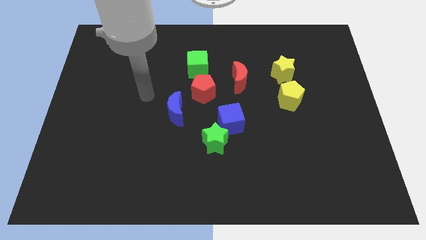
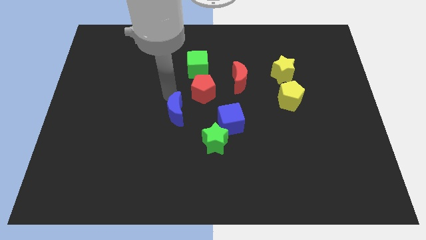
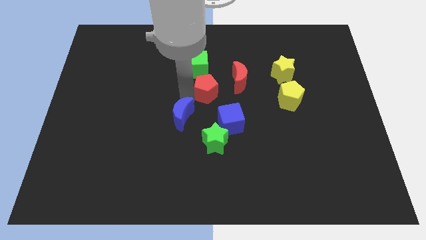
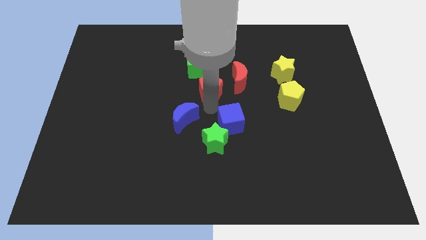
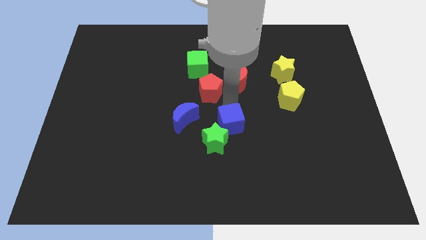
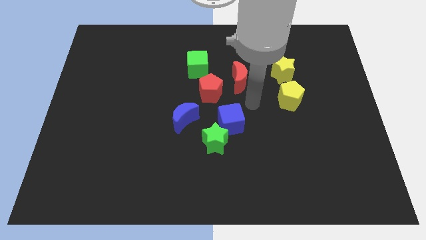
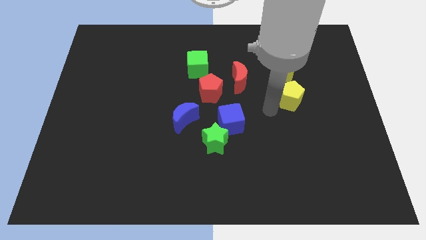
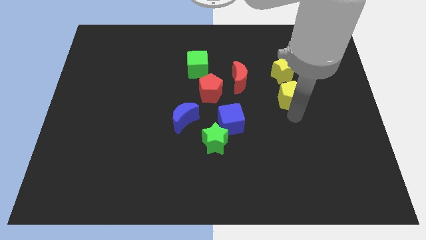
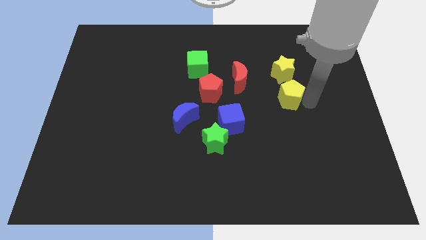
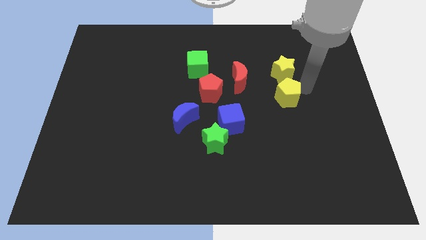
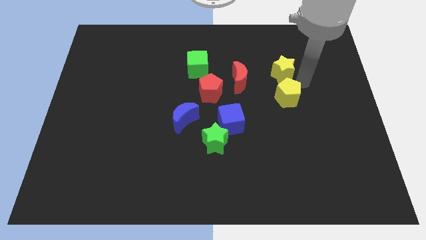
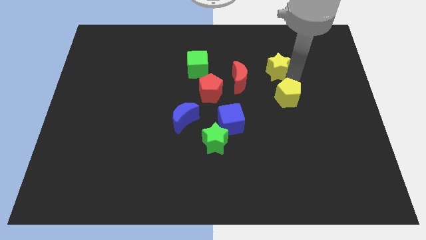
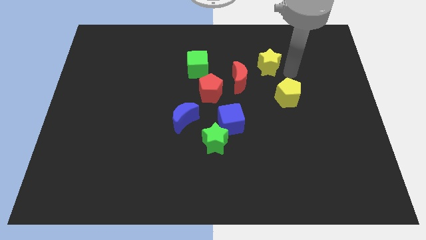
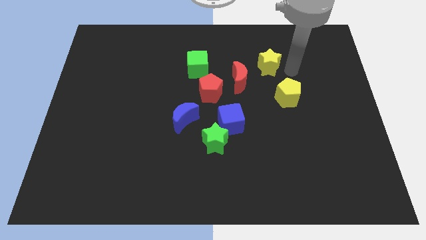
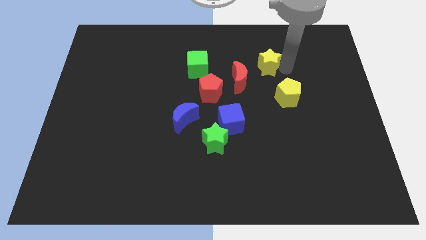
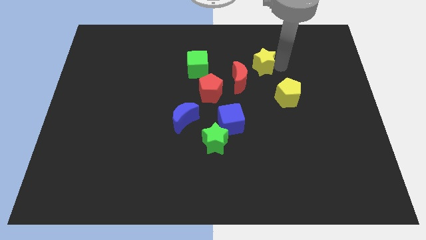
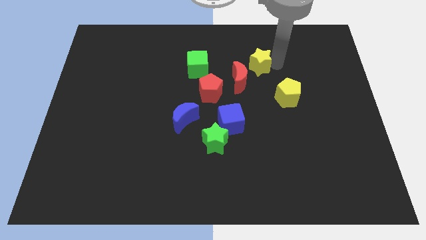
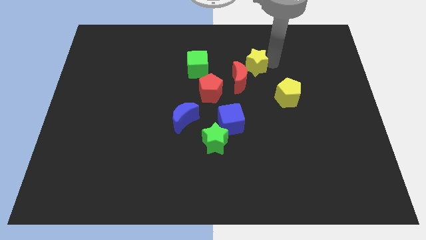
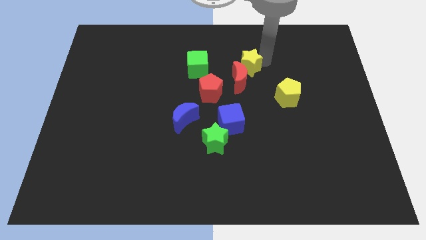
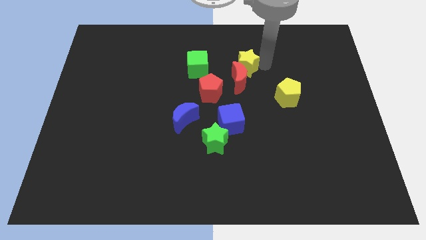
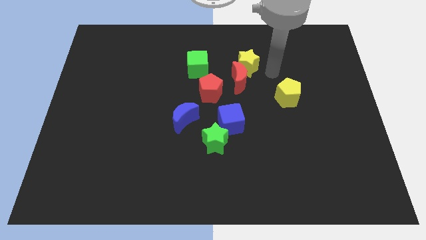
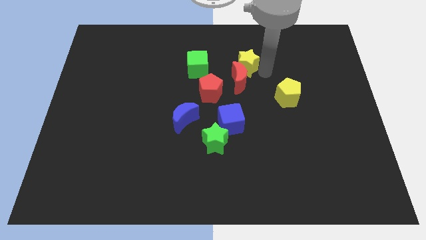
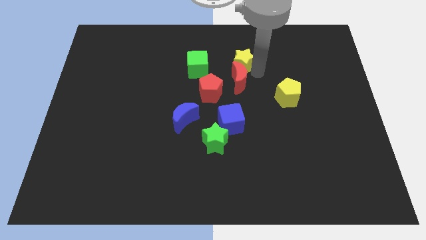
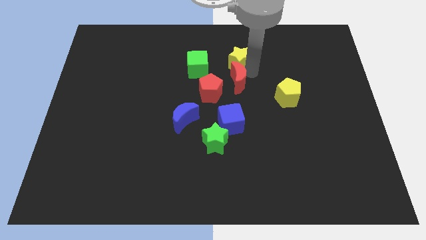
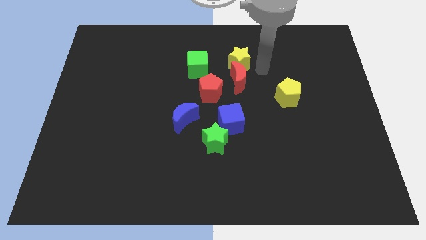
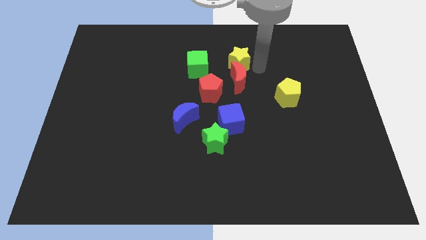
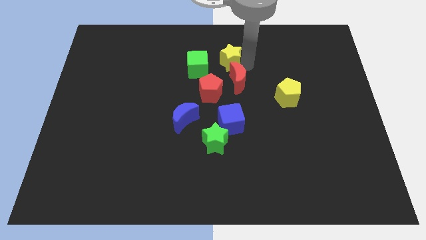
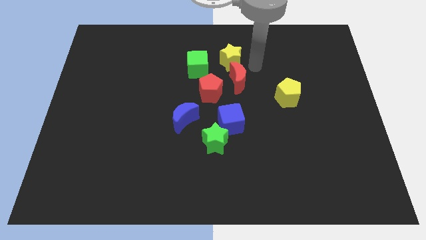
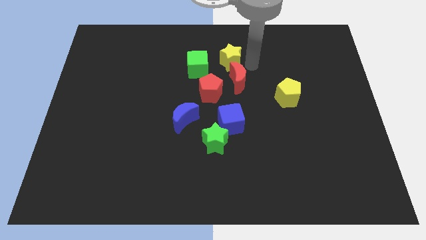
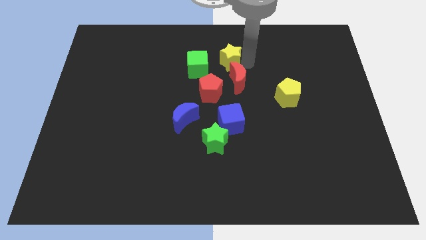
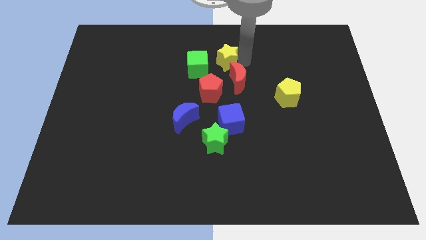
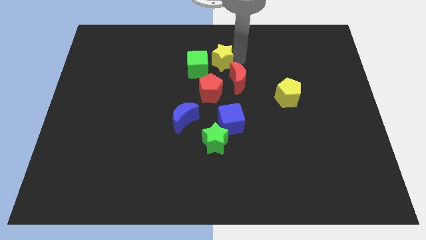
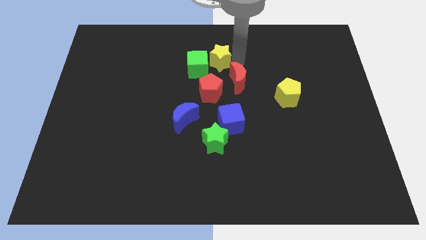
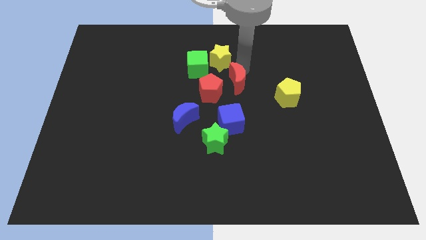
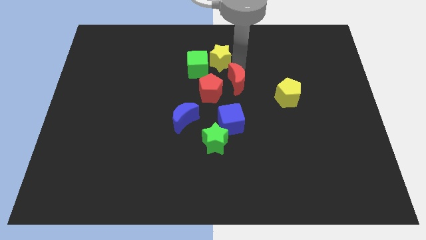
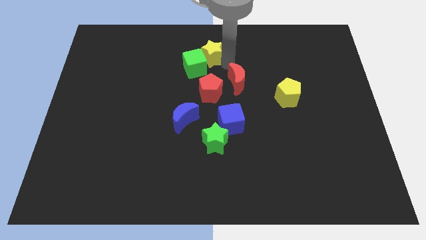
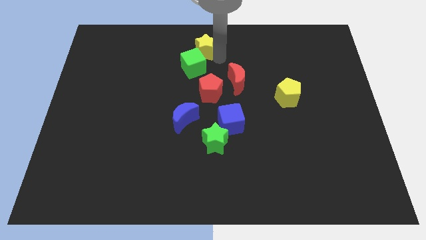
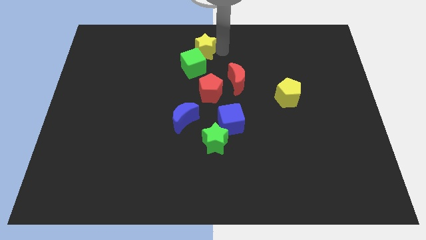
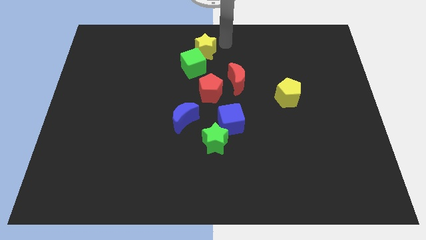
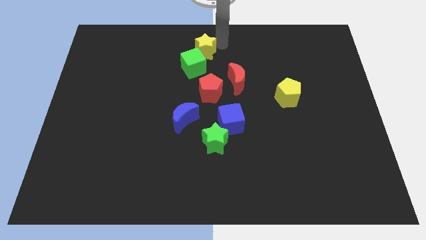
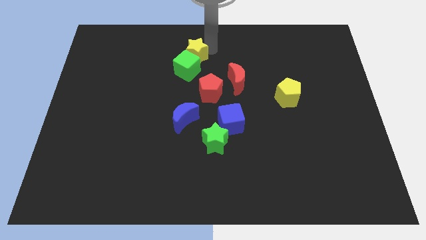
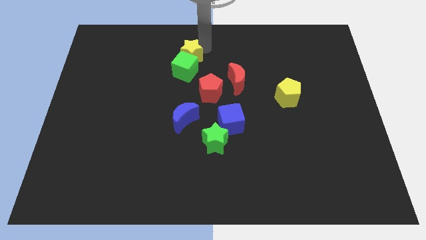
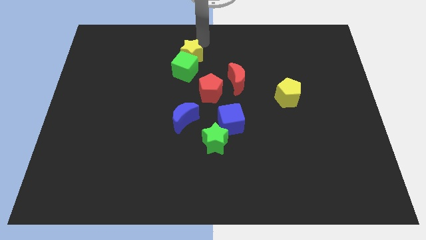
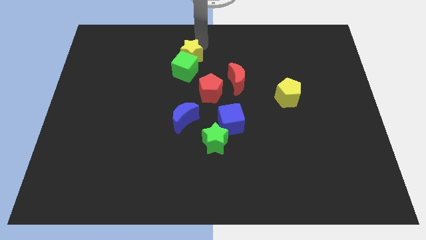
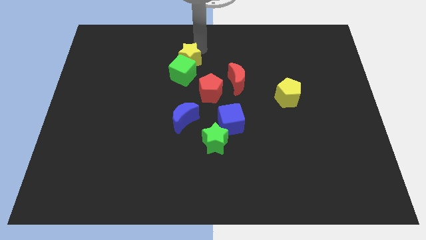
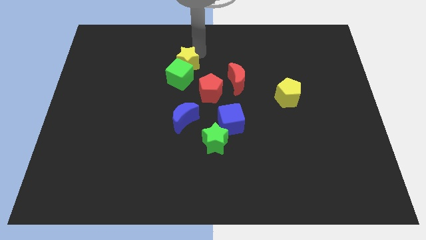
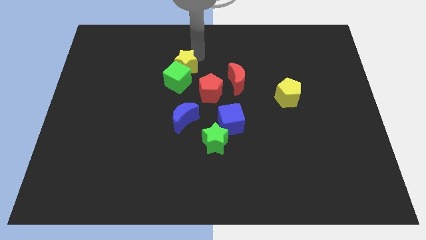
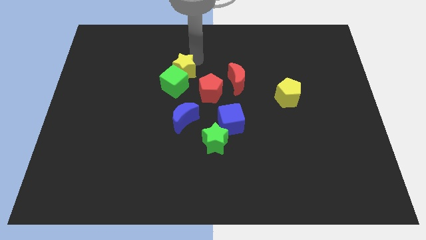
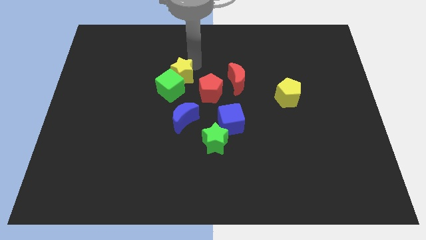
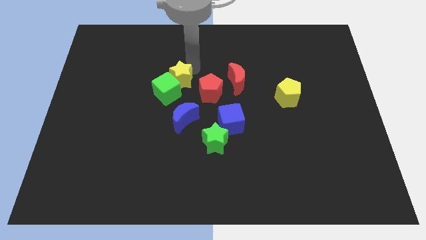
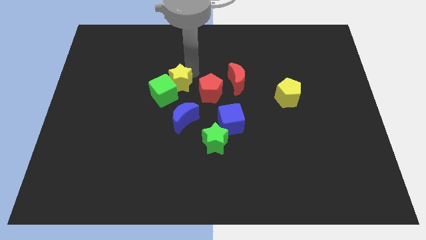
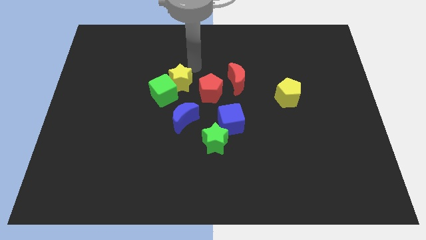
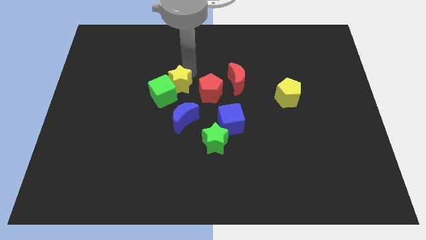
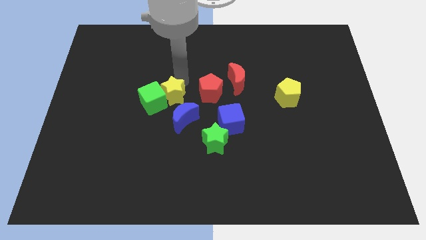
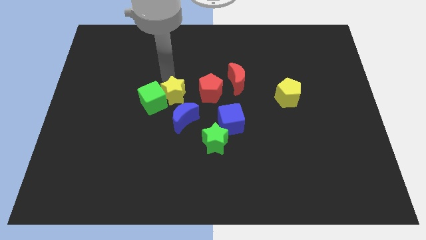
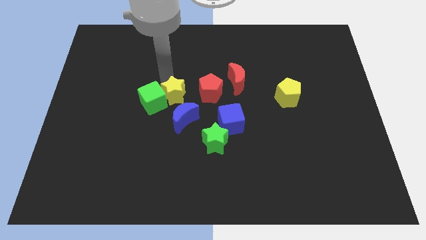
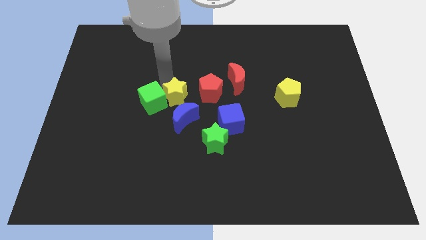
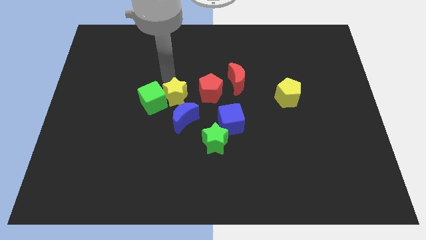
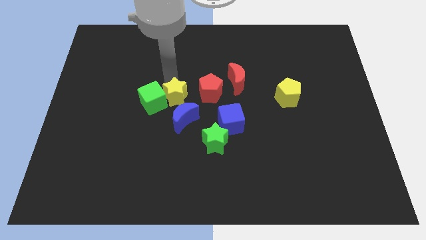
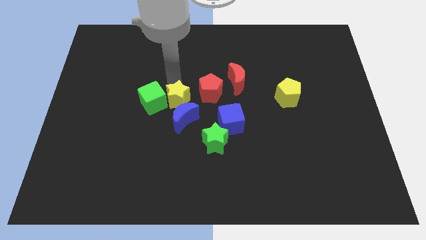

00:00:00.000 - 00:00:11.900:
push the yellow star to the blue moon
